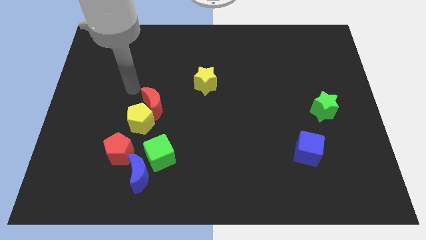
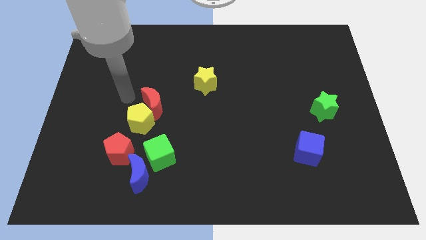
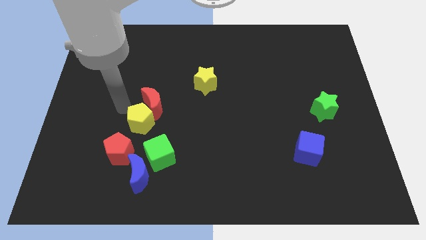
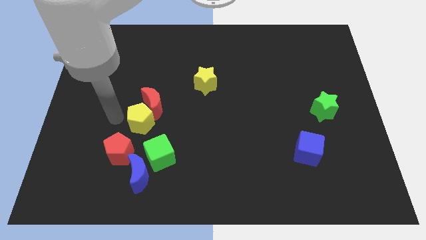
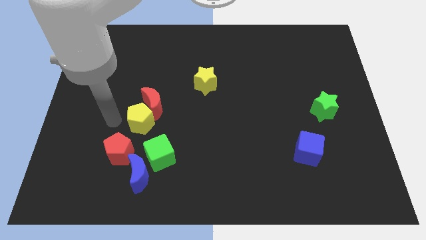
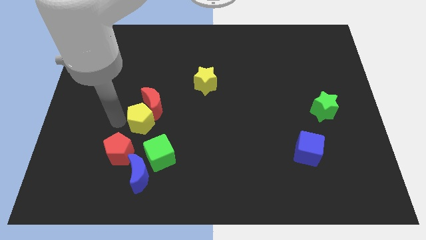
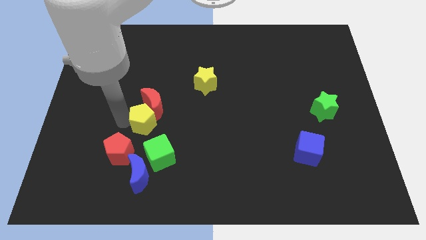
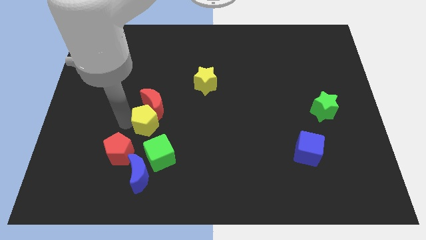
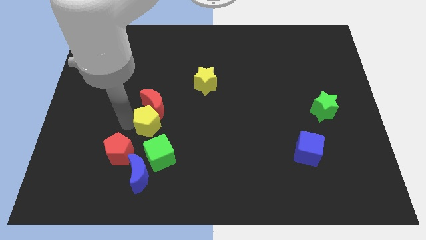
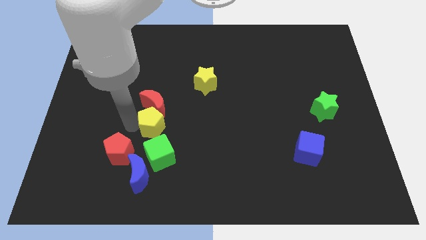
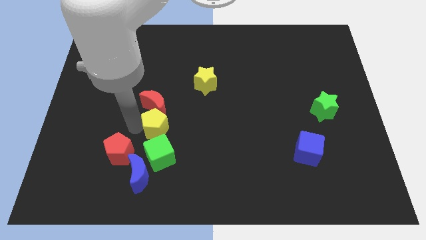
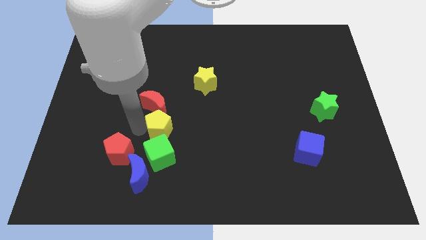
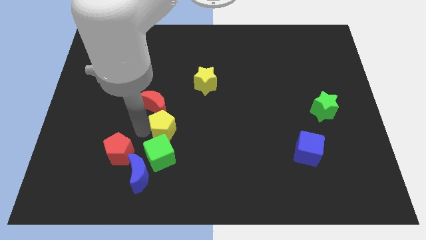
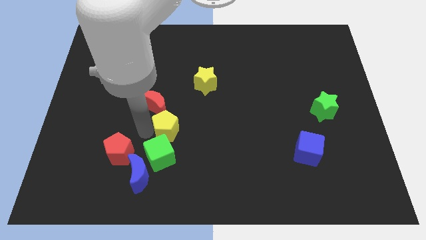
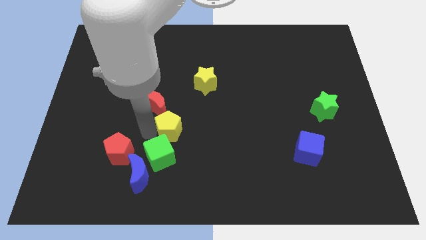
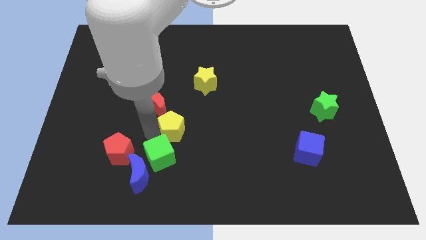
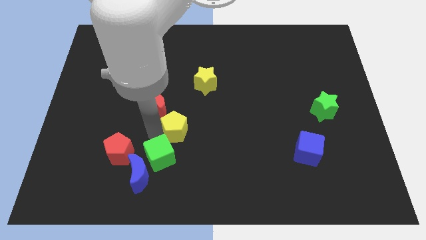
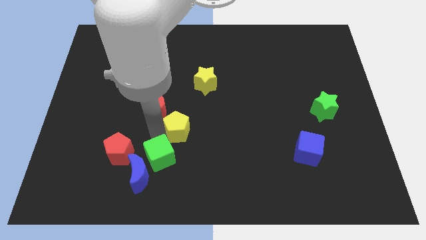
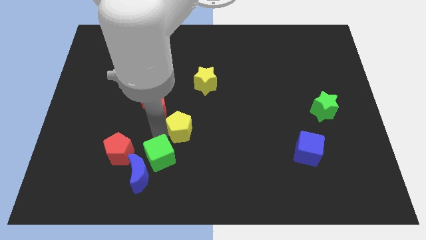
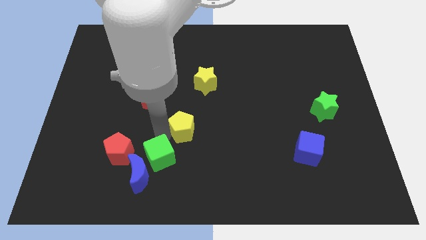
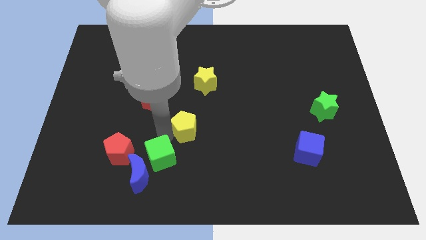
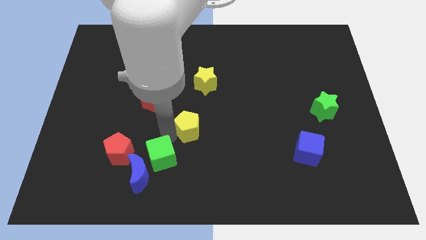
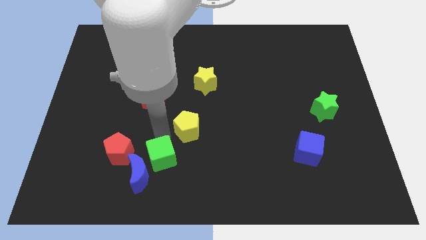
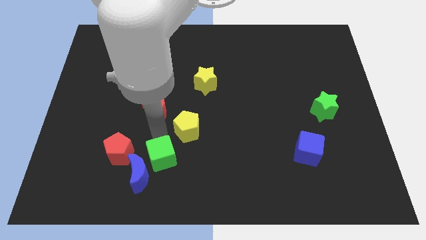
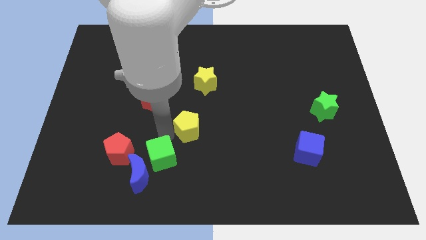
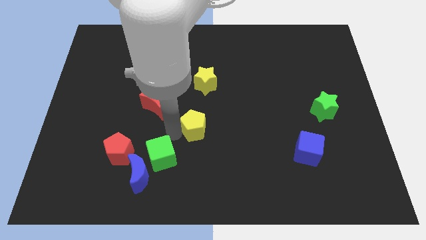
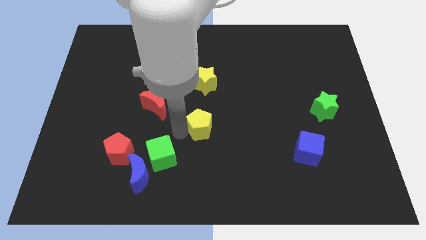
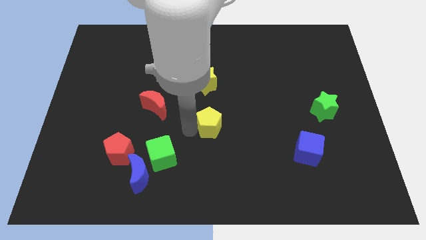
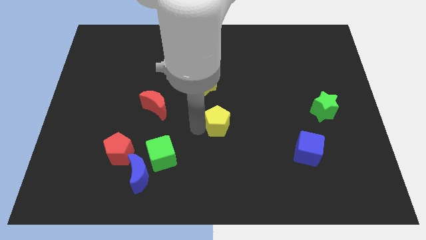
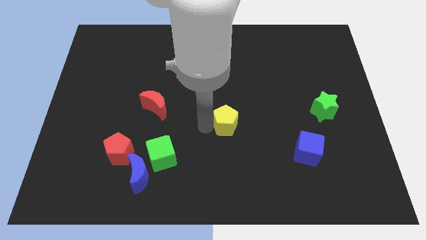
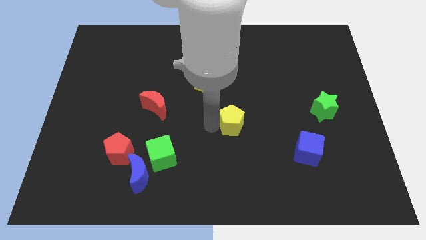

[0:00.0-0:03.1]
push the yellow pentagon to the right

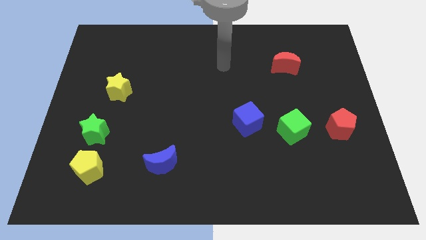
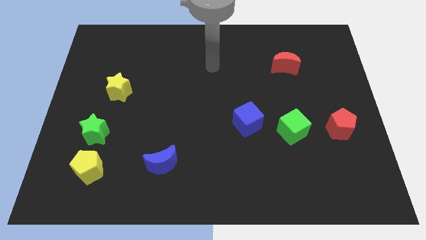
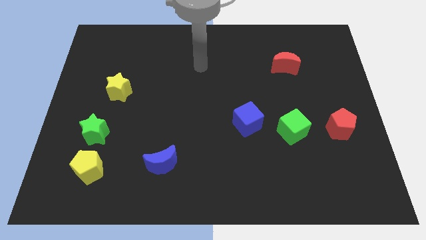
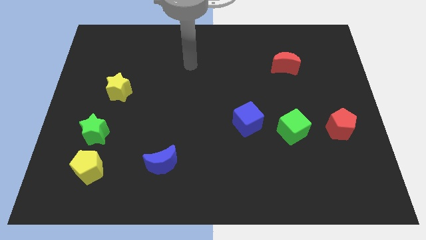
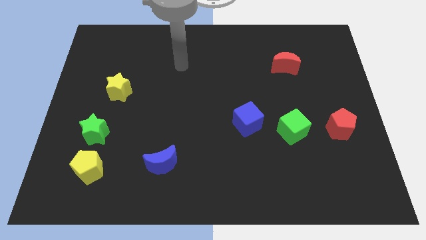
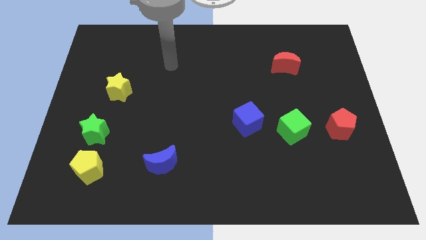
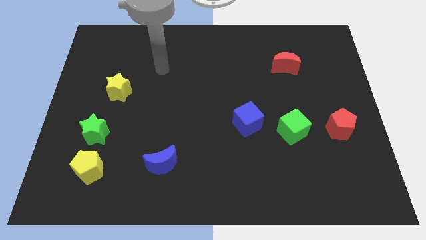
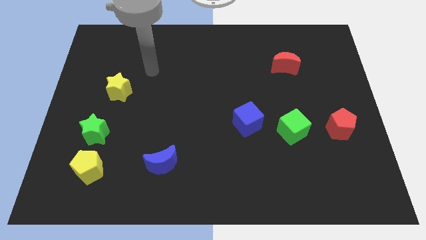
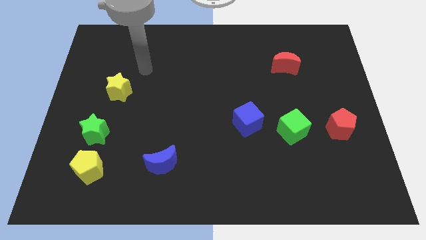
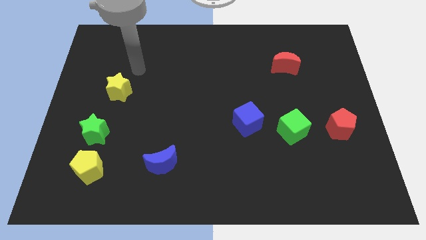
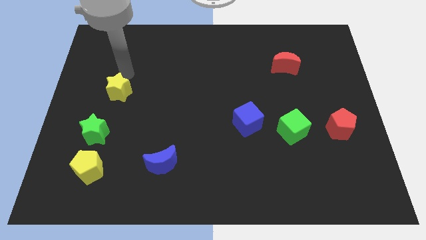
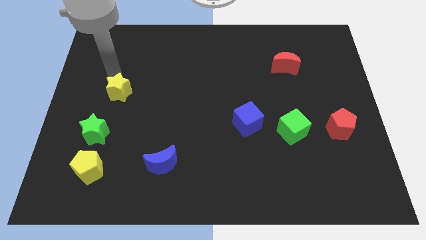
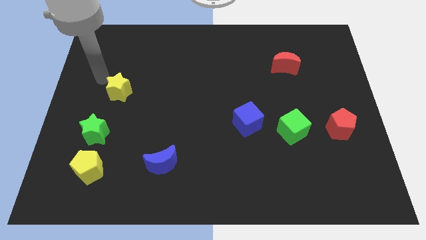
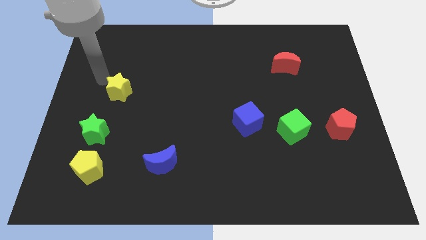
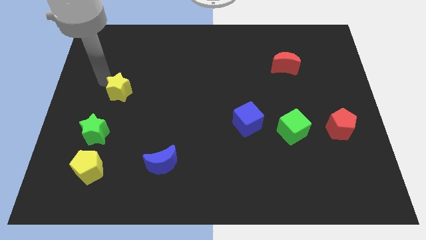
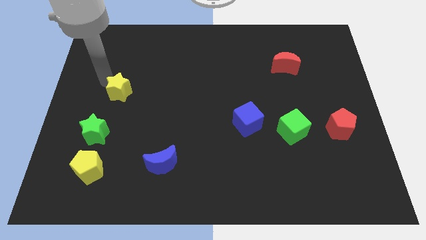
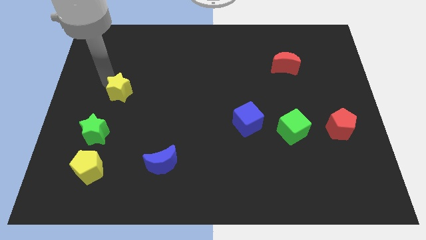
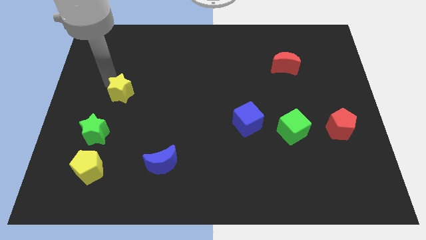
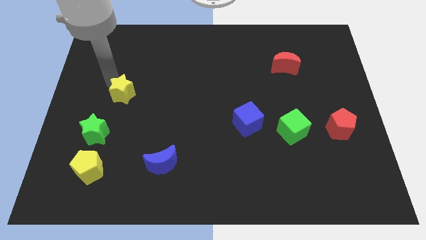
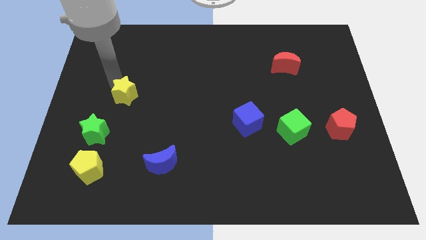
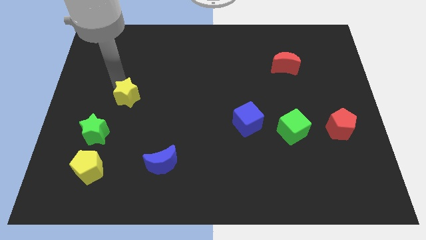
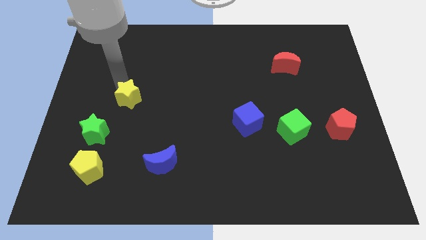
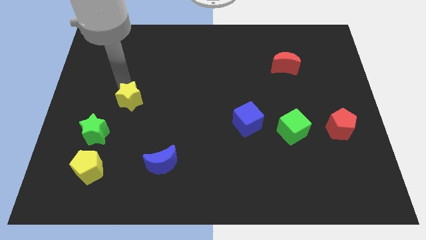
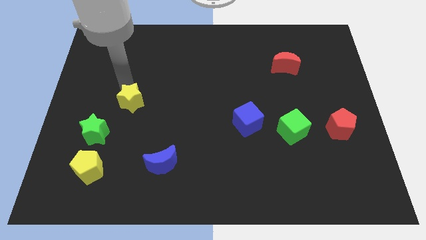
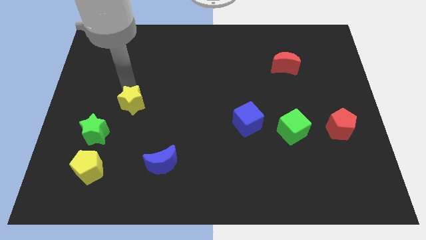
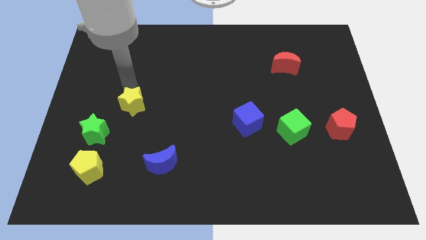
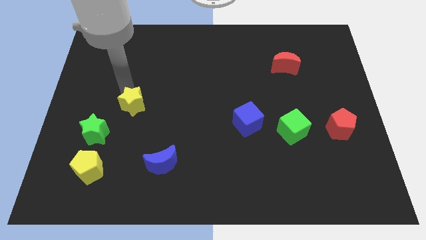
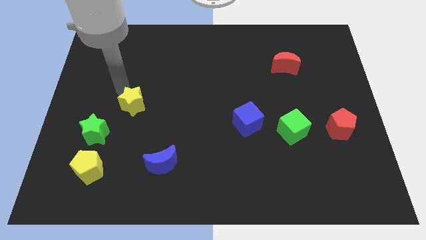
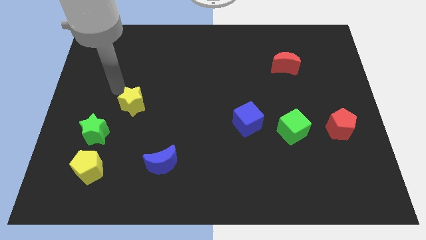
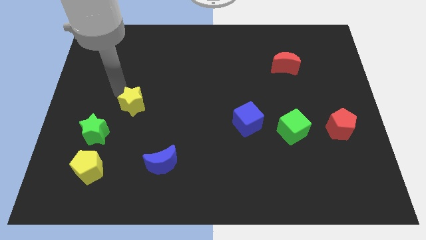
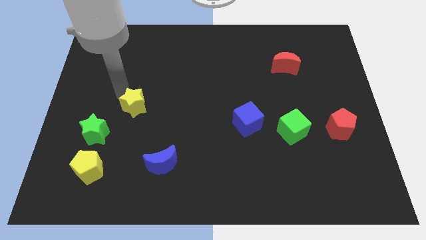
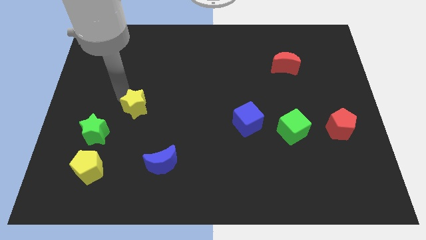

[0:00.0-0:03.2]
move the yellow star diagonally downwards and right slightly

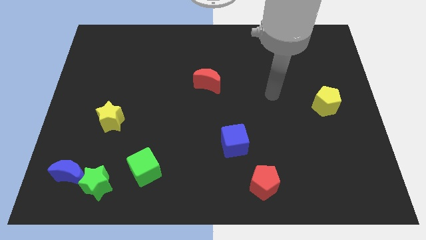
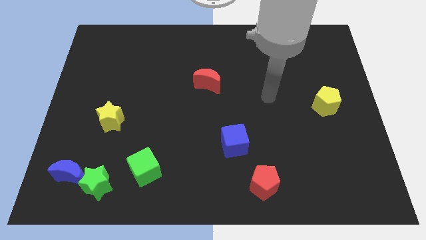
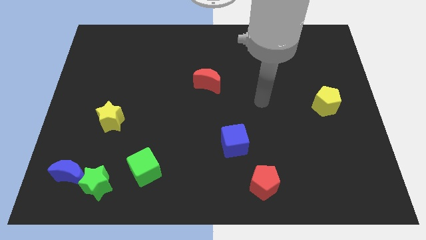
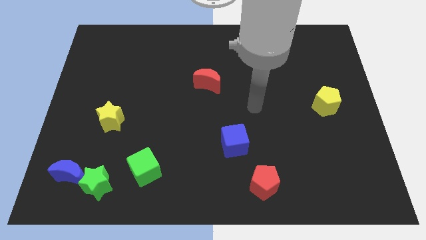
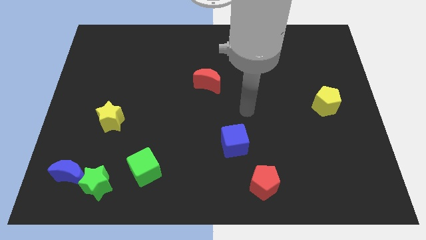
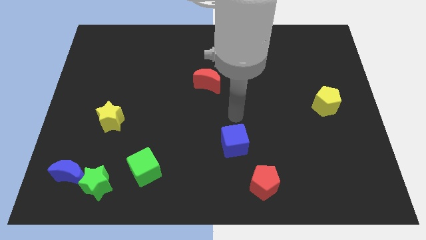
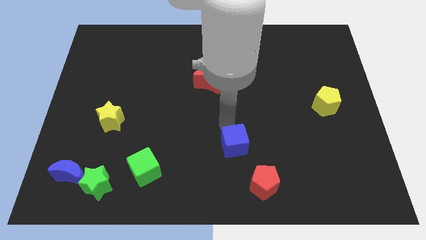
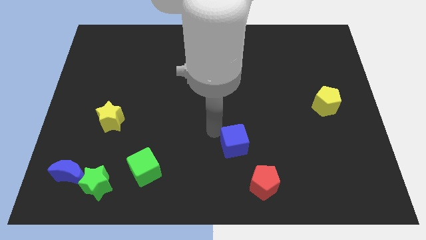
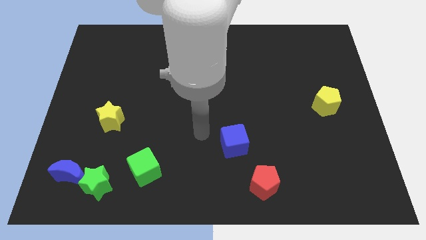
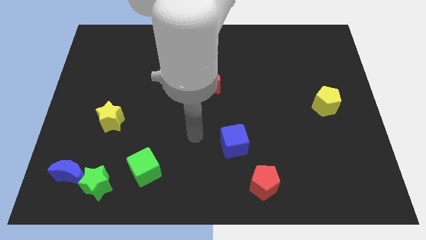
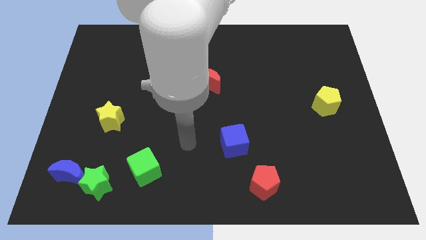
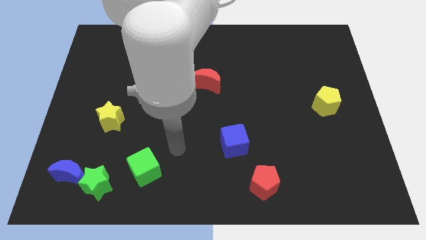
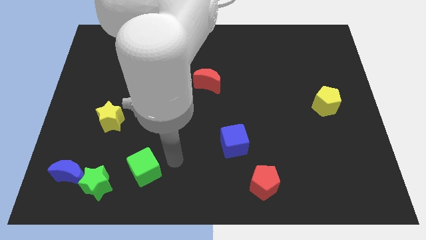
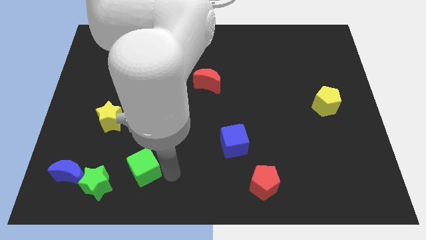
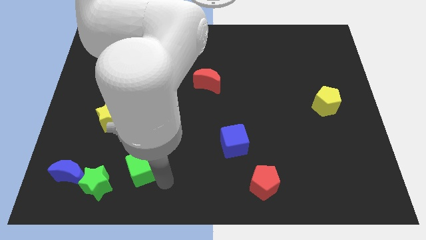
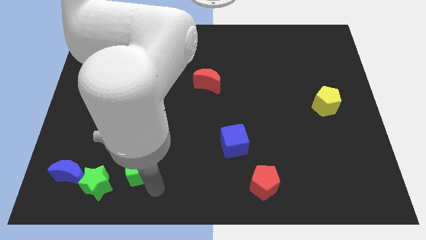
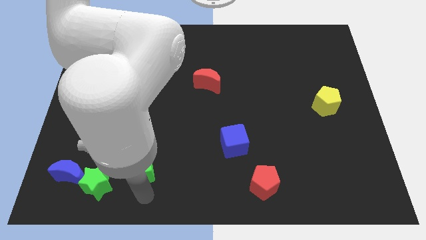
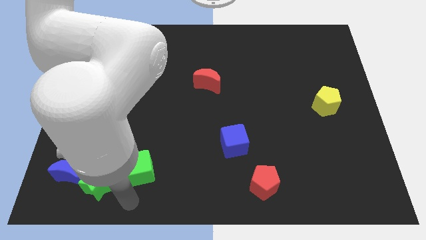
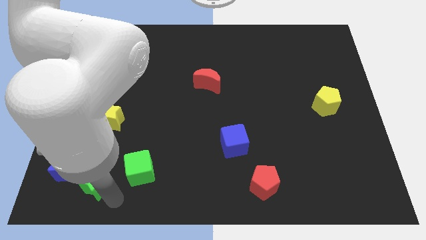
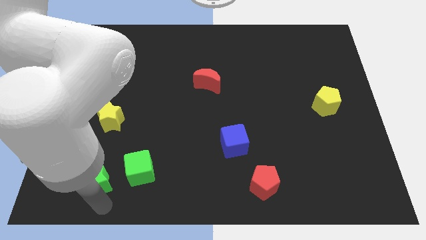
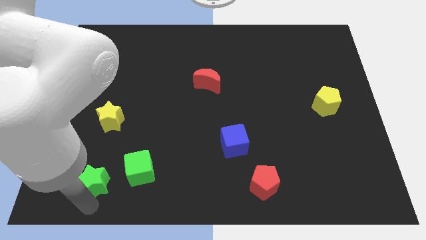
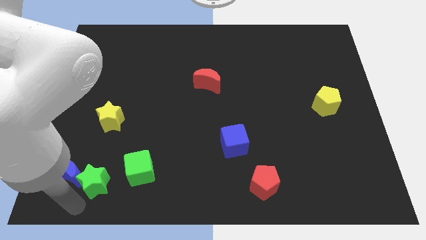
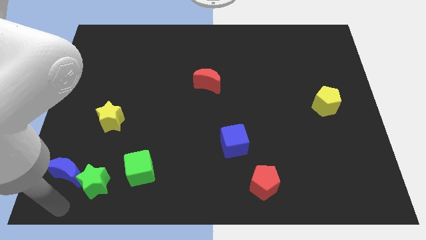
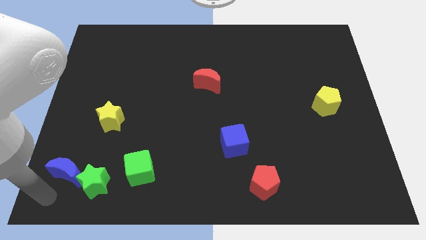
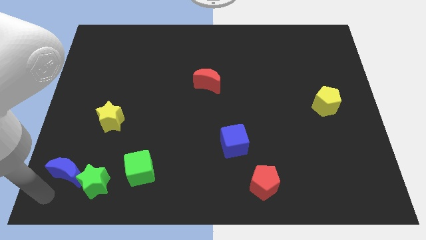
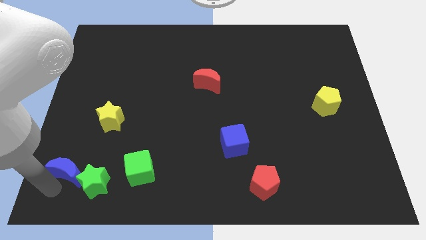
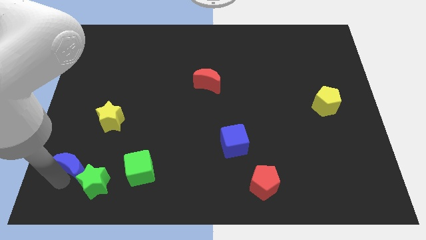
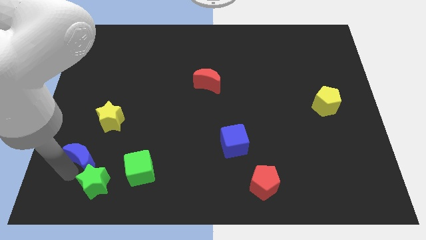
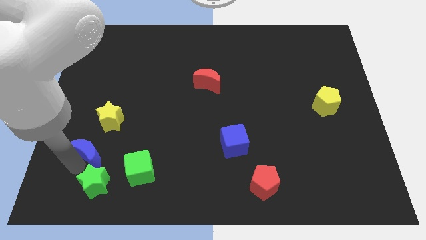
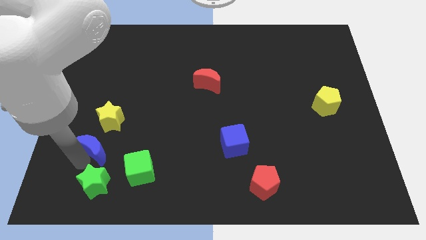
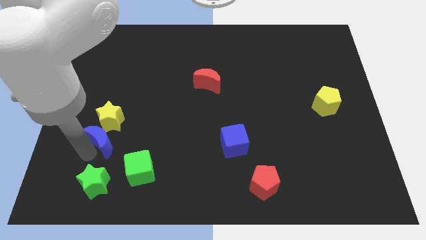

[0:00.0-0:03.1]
slide the blue moon upwards and right slightly
